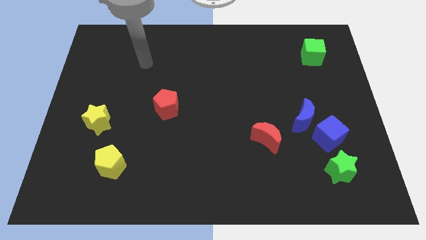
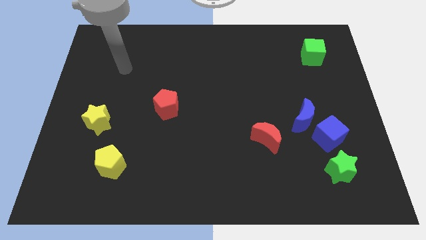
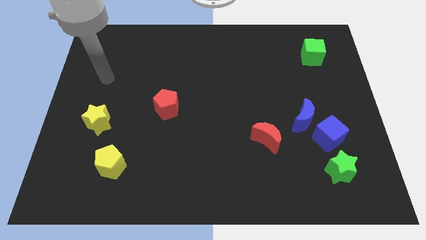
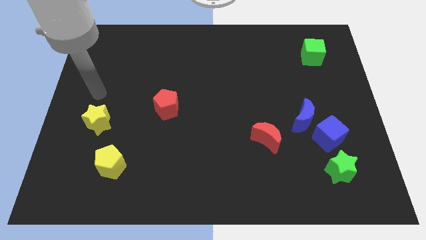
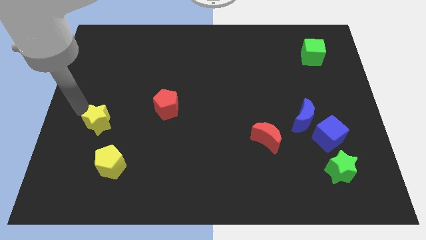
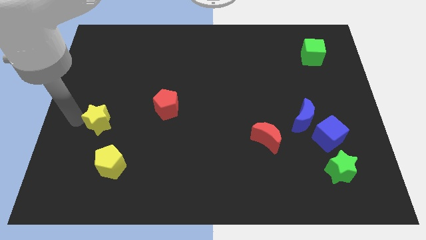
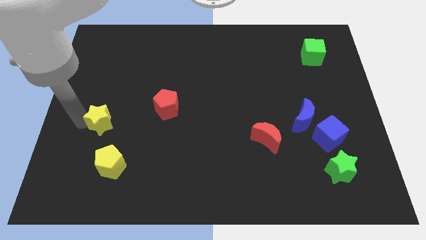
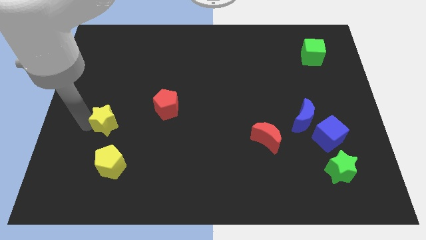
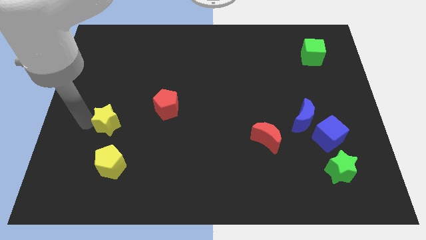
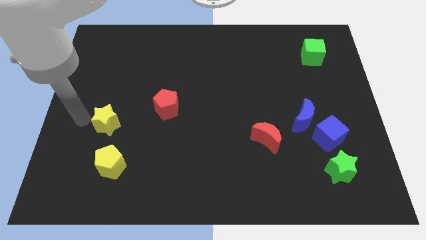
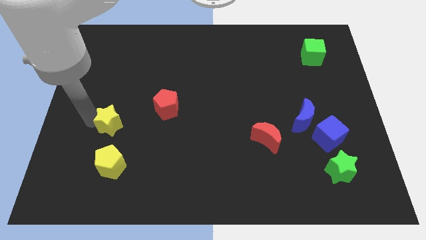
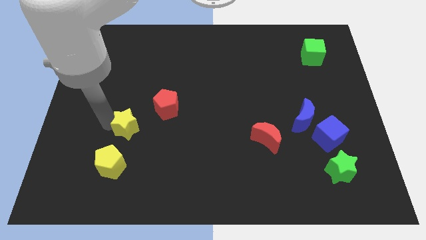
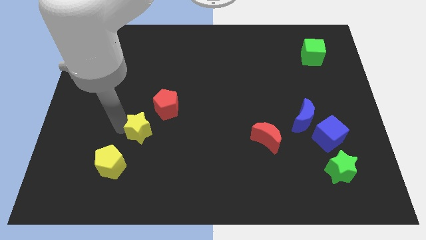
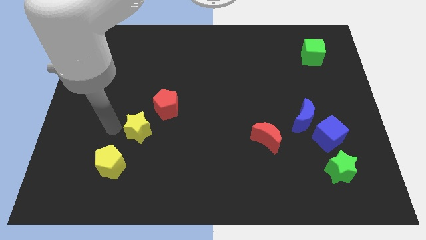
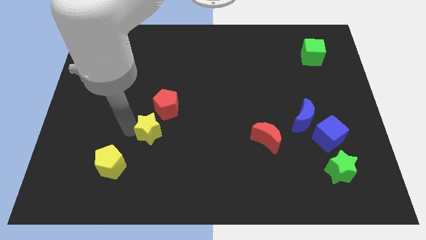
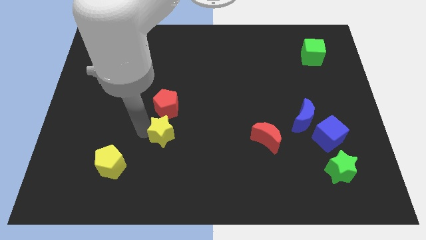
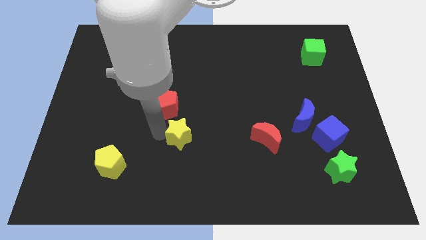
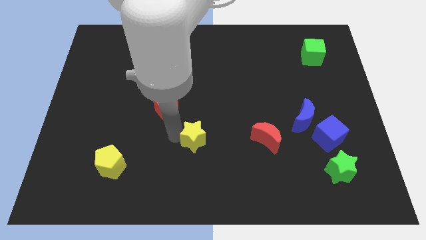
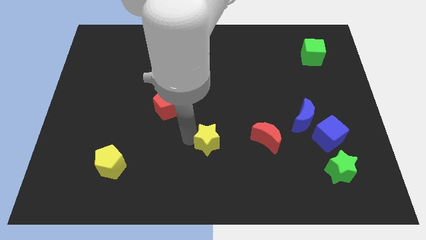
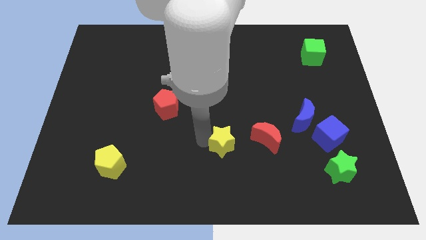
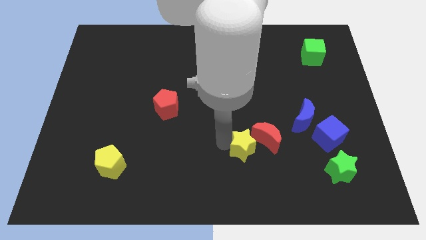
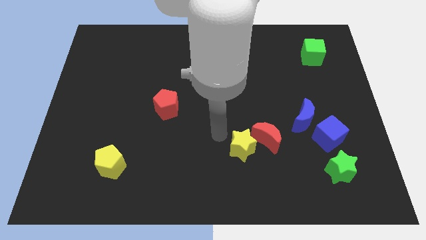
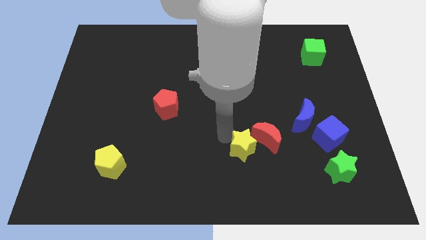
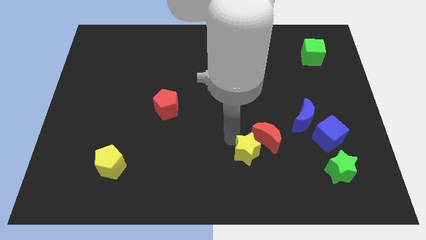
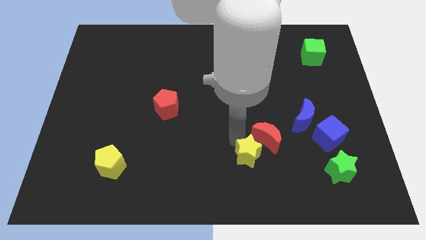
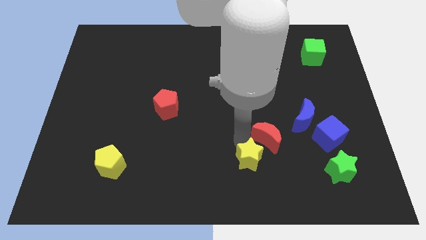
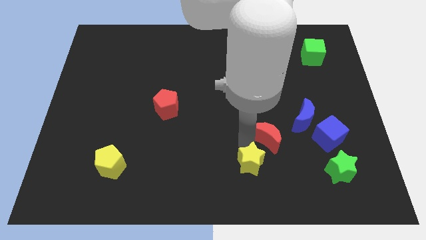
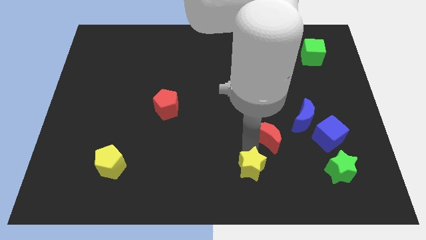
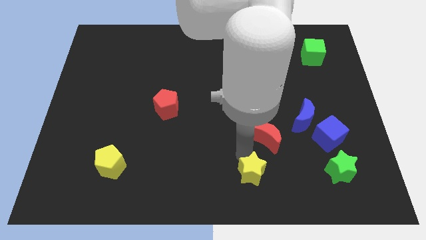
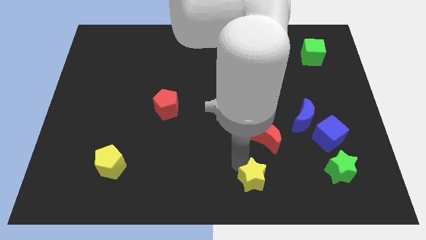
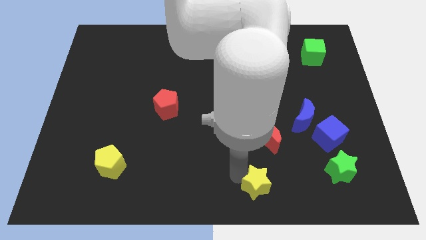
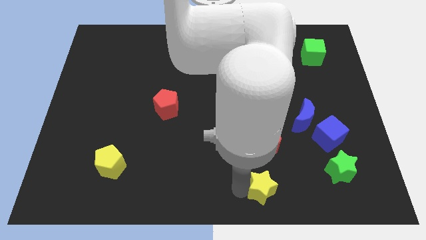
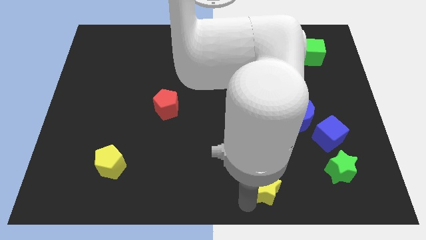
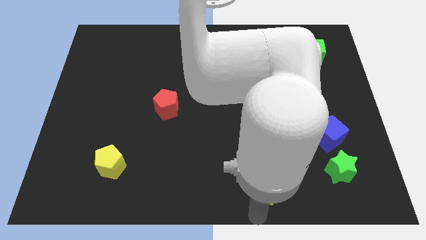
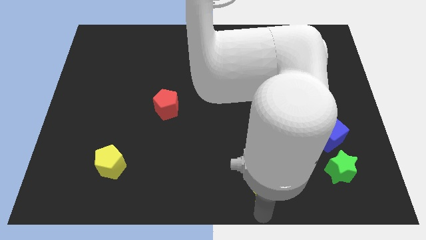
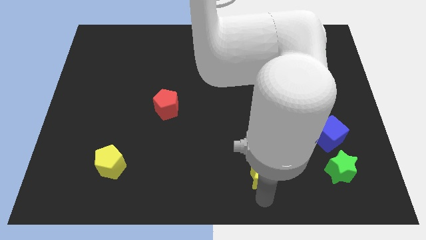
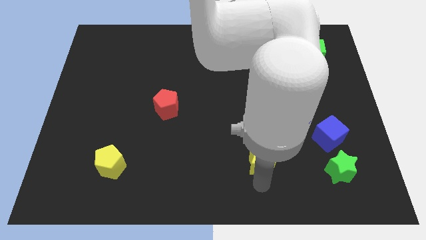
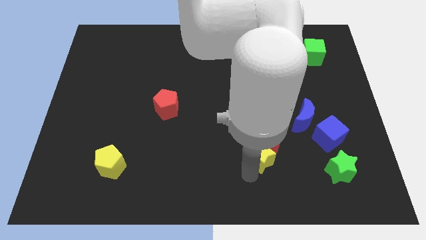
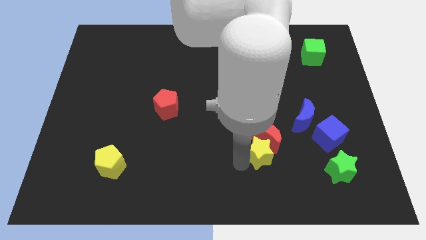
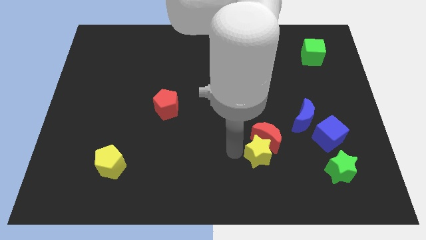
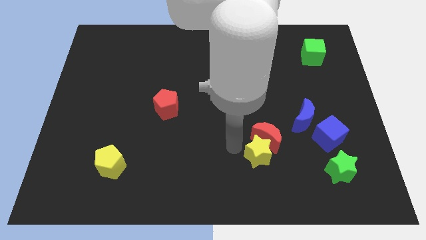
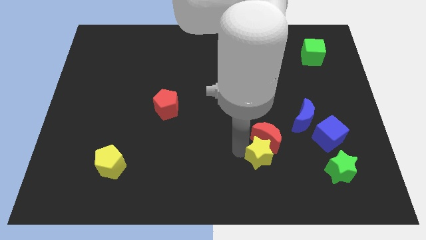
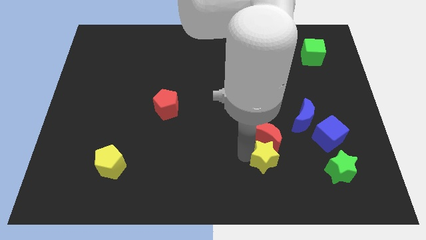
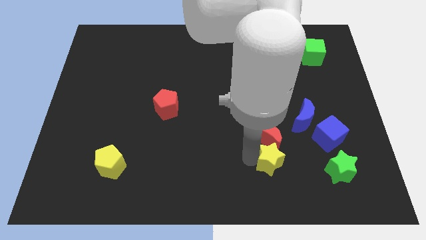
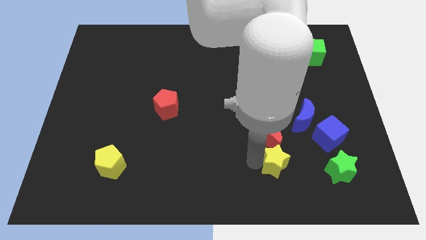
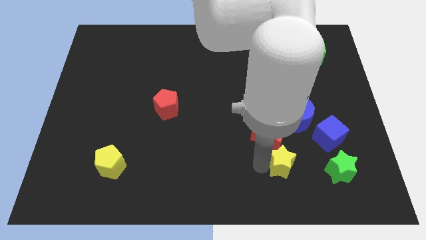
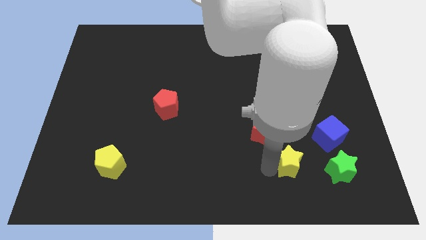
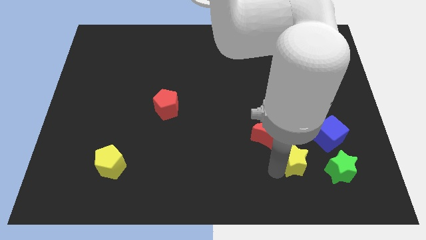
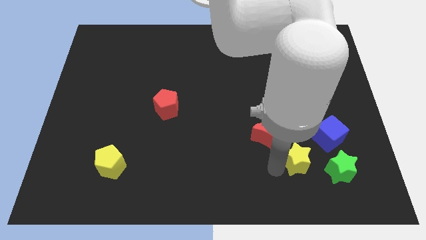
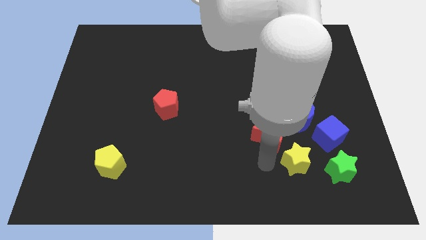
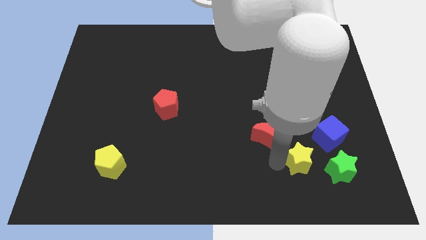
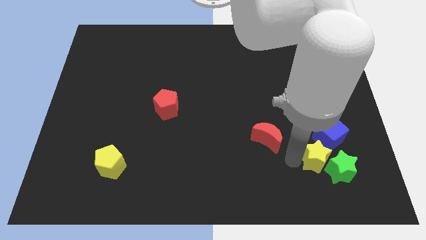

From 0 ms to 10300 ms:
put the yellow star towards the green star

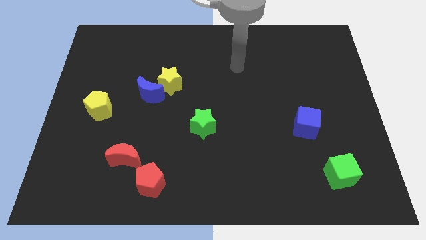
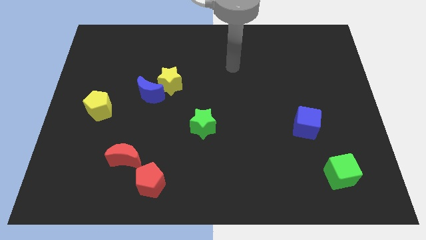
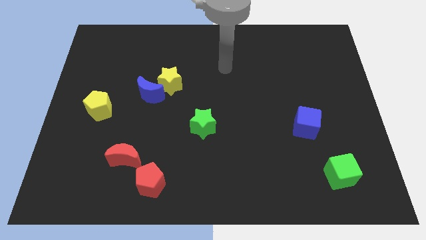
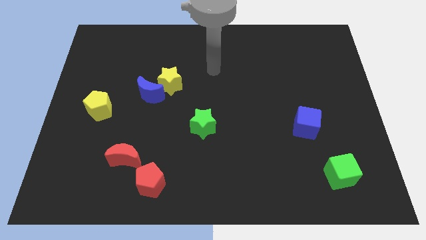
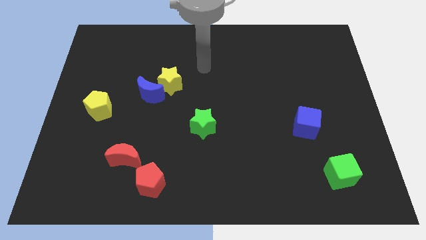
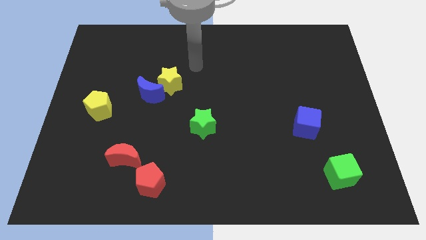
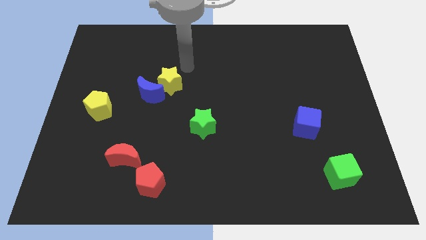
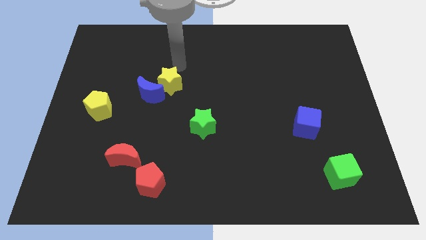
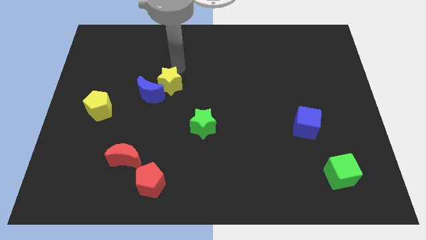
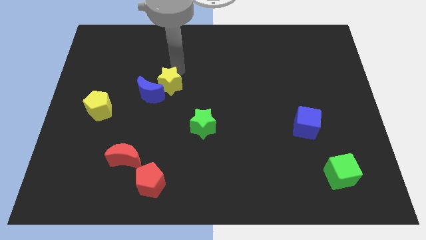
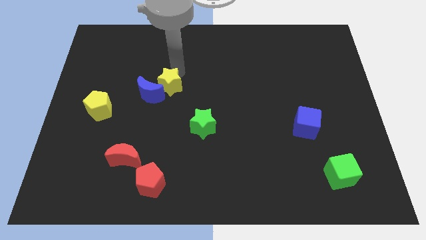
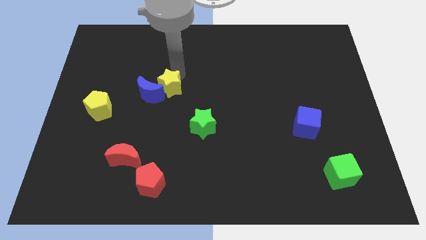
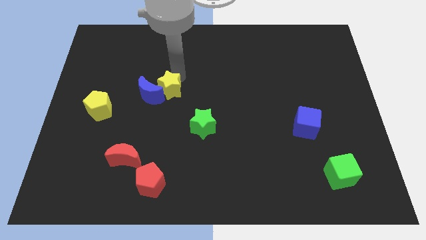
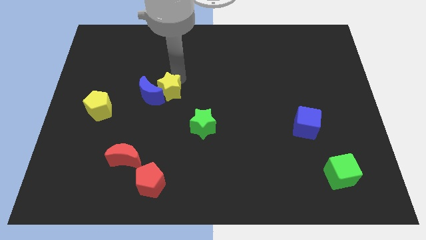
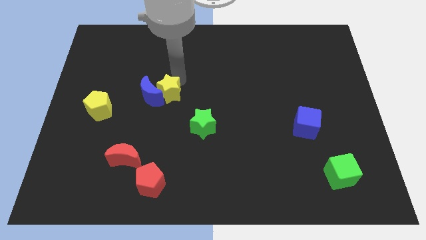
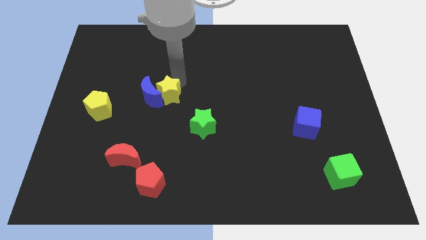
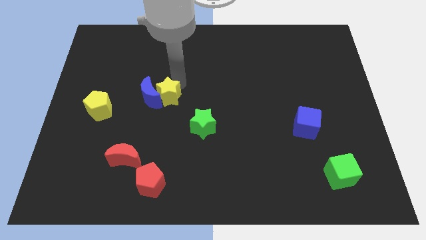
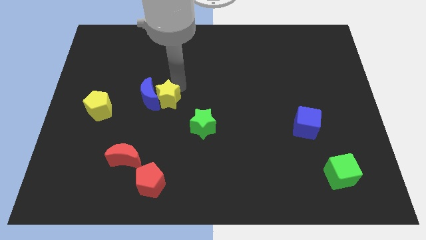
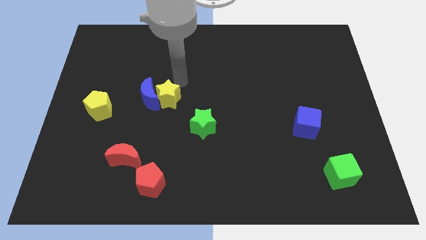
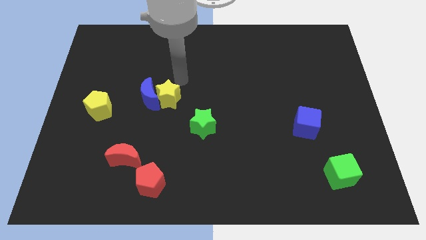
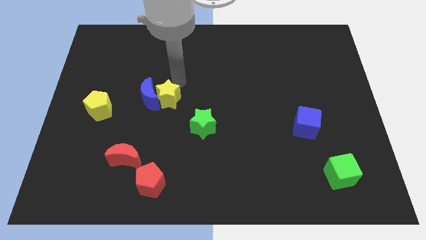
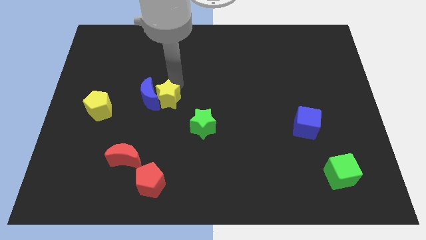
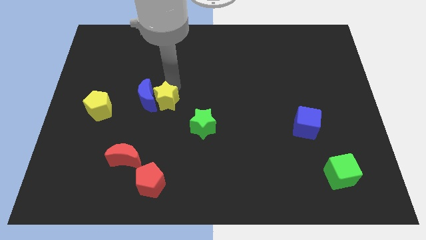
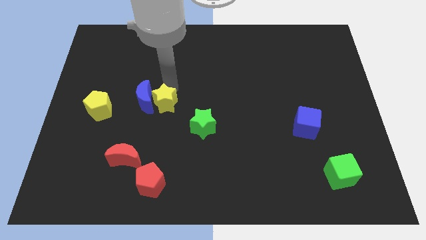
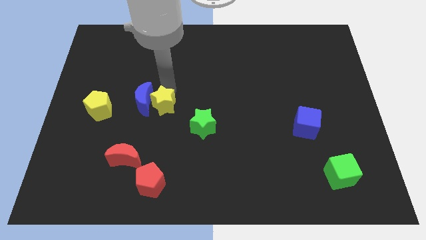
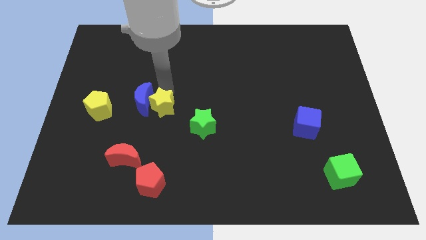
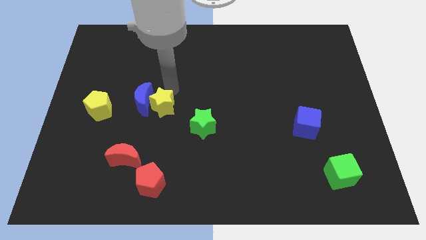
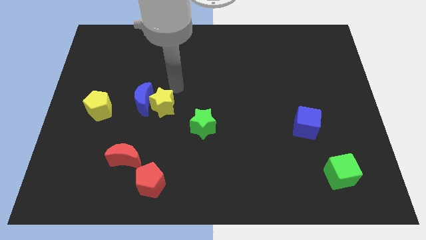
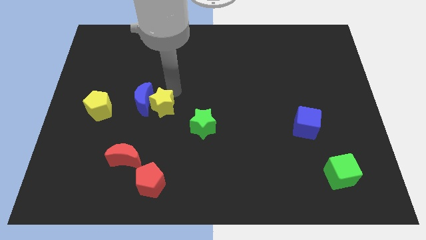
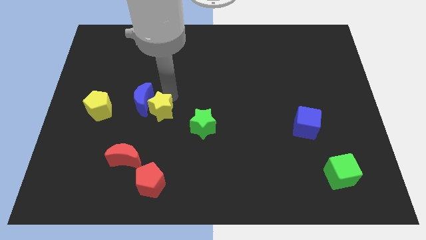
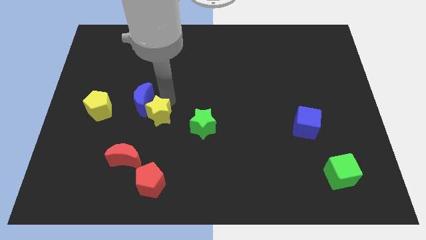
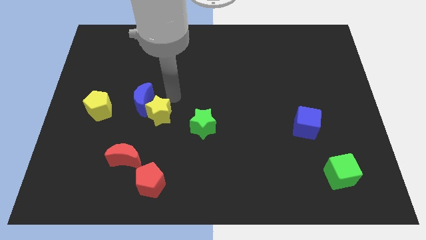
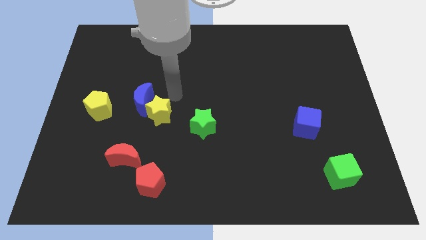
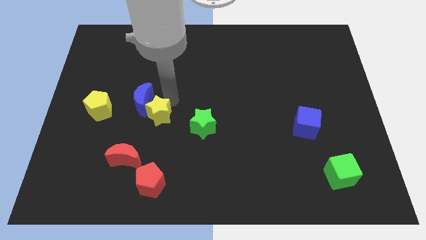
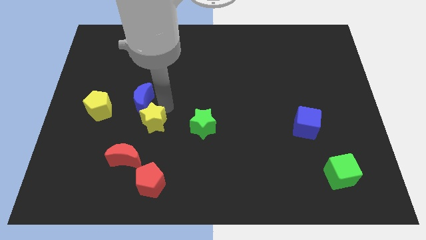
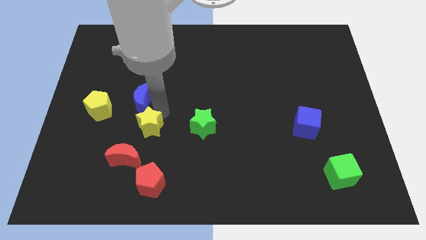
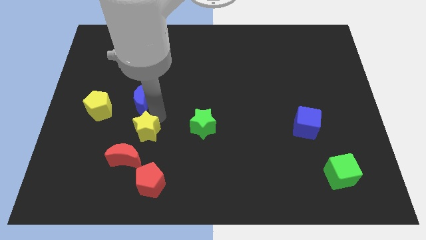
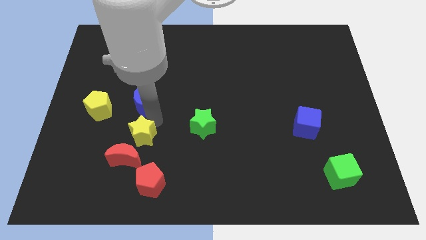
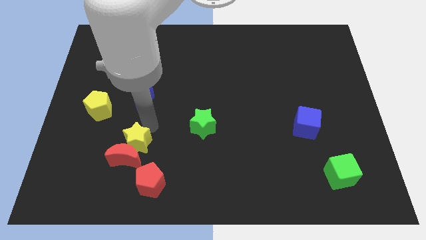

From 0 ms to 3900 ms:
slide the yellow star to the red moon
